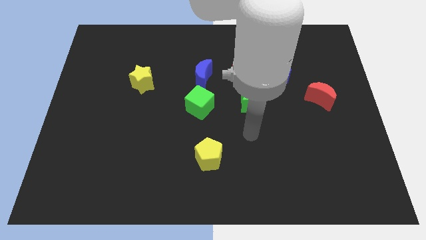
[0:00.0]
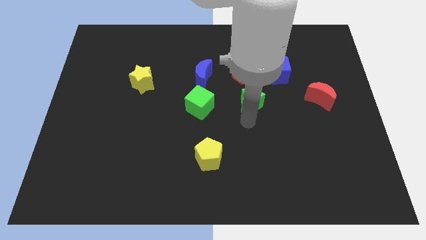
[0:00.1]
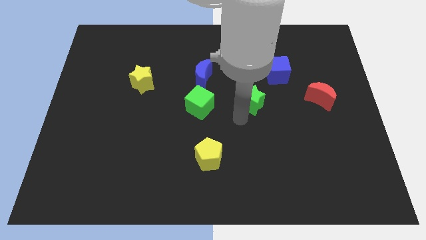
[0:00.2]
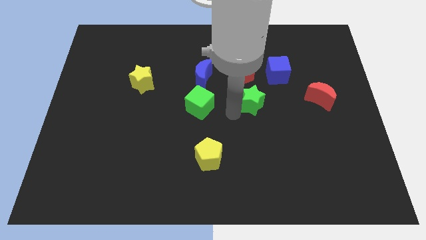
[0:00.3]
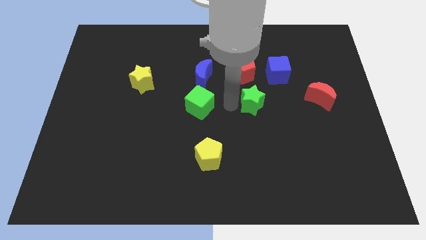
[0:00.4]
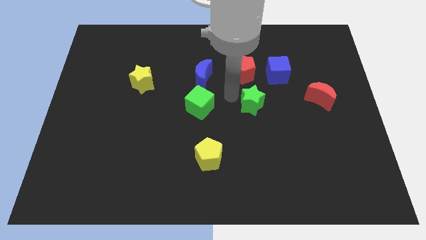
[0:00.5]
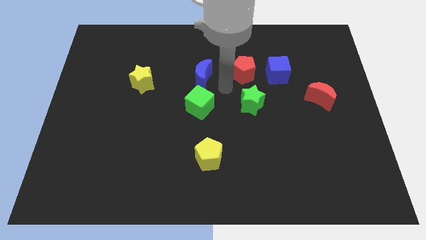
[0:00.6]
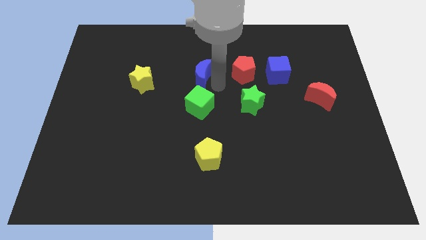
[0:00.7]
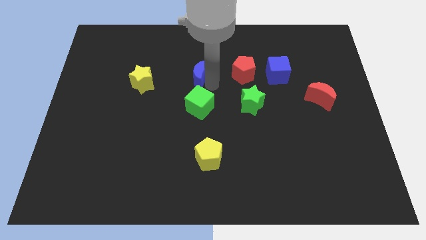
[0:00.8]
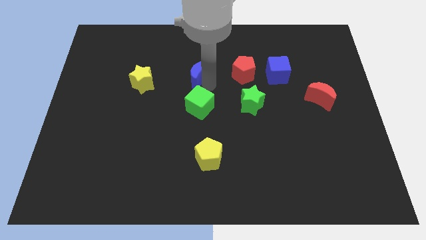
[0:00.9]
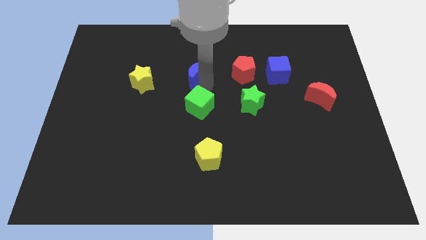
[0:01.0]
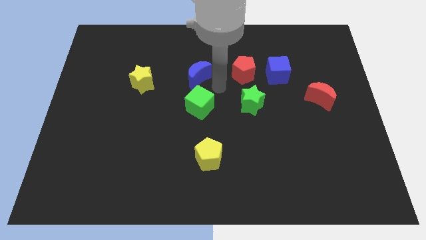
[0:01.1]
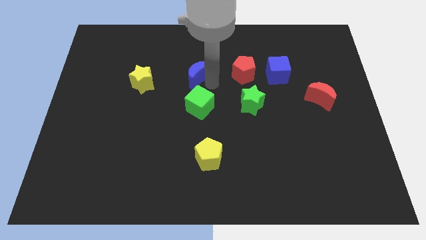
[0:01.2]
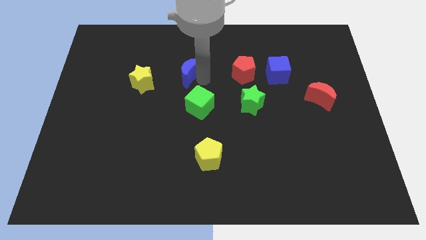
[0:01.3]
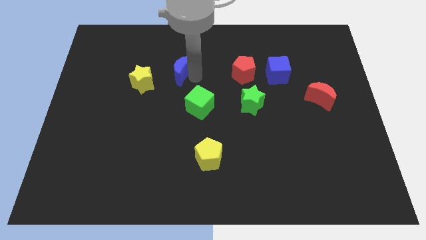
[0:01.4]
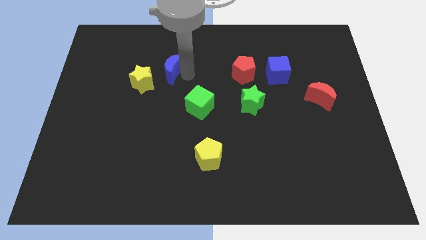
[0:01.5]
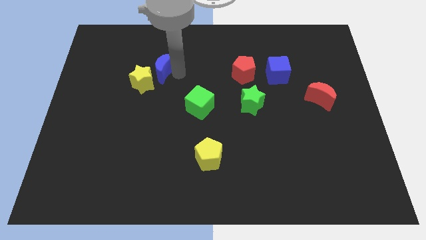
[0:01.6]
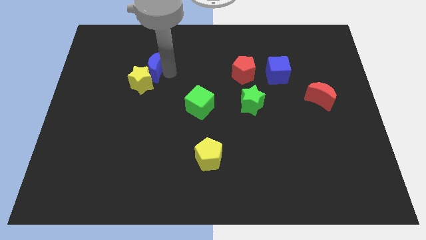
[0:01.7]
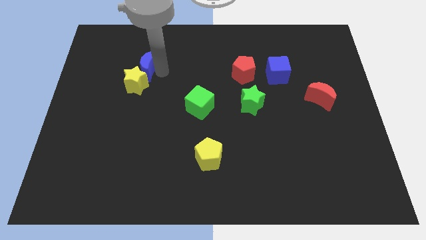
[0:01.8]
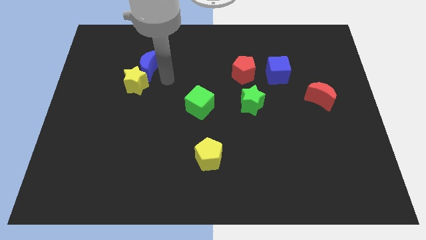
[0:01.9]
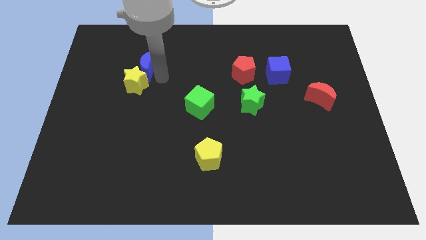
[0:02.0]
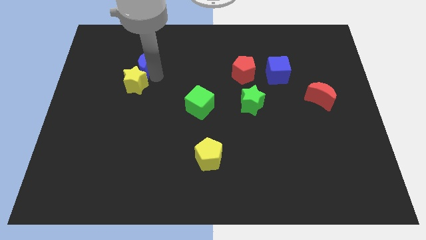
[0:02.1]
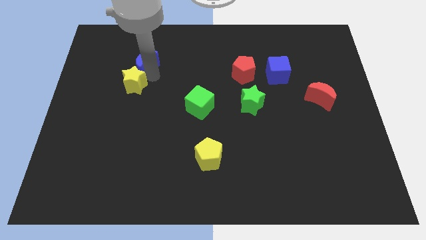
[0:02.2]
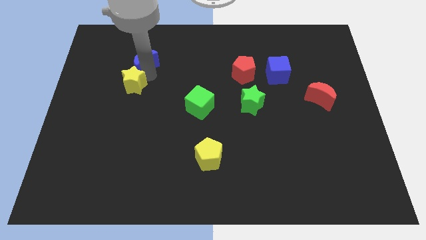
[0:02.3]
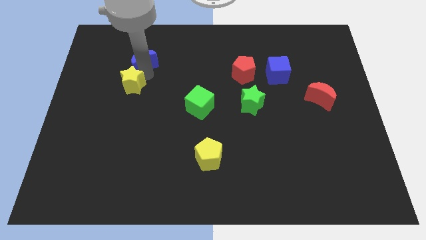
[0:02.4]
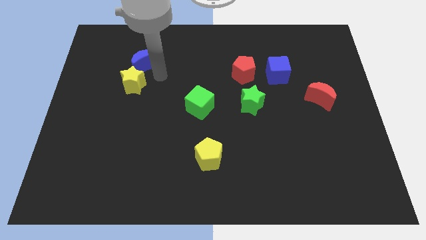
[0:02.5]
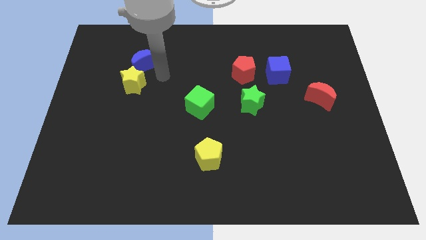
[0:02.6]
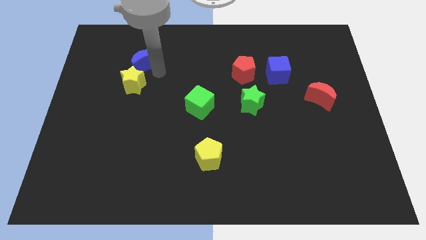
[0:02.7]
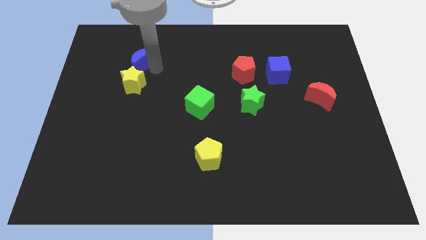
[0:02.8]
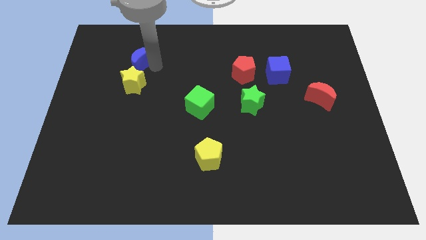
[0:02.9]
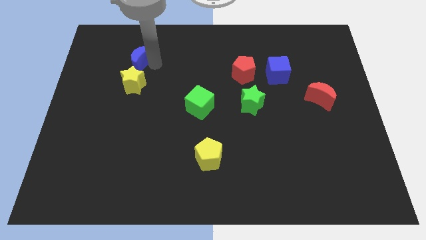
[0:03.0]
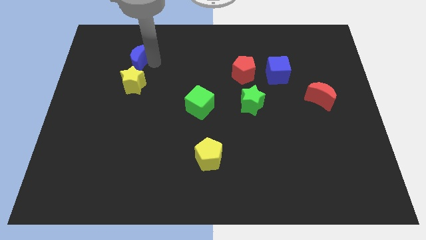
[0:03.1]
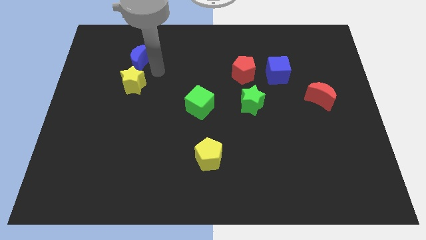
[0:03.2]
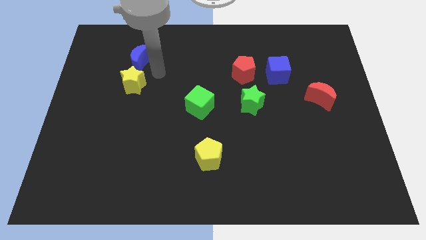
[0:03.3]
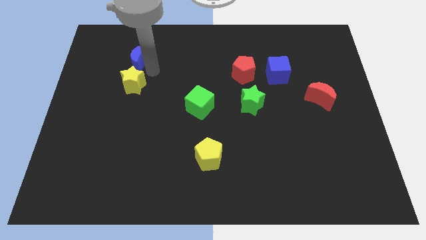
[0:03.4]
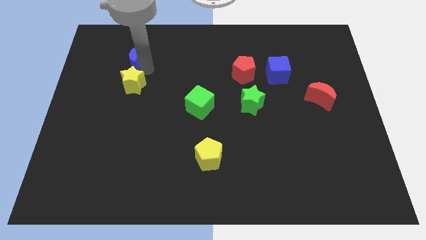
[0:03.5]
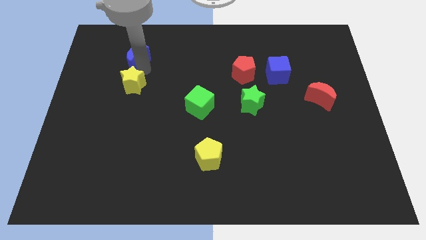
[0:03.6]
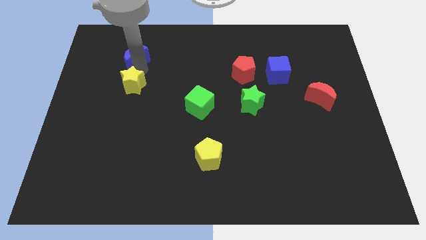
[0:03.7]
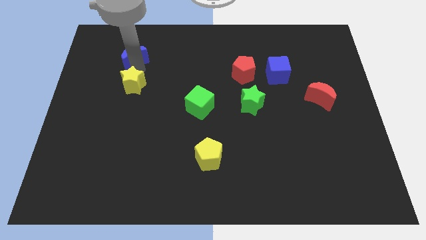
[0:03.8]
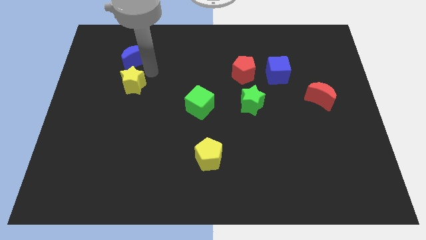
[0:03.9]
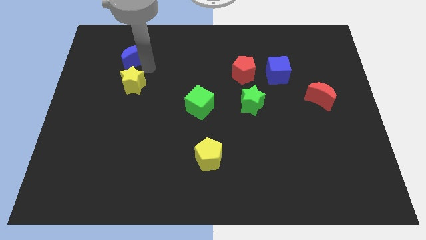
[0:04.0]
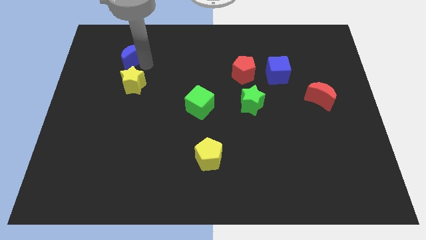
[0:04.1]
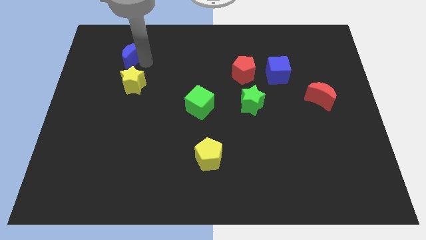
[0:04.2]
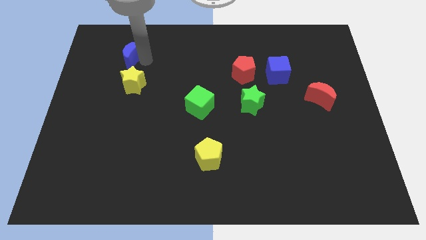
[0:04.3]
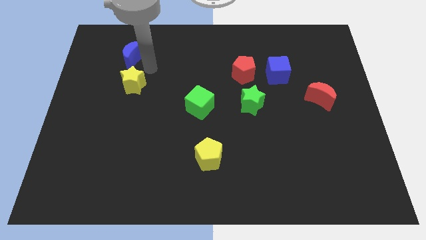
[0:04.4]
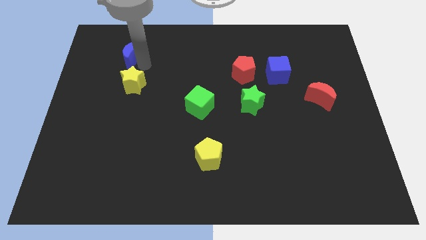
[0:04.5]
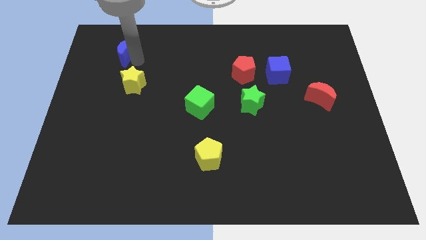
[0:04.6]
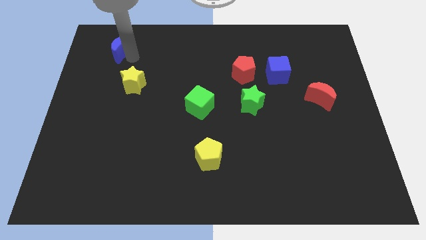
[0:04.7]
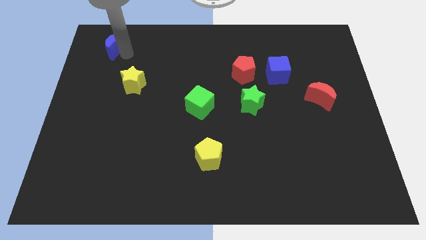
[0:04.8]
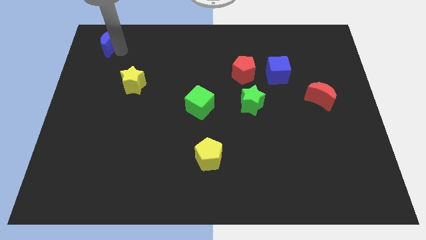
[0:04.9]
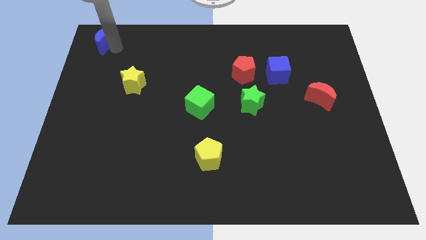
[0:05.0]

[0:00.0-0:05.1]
push the blue moon to the top left of the board

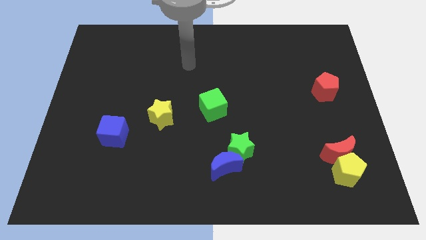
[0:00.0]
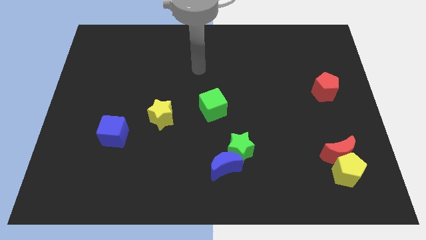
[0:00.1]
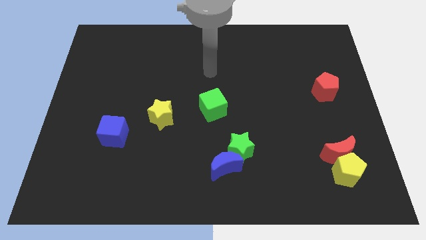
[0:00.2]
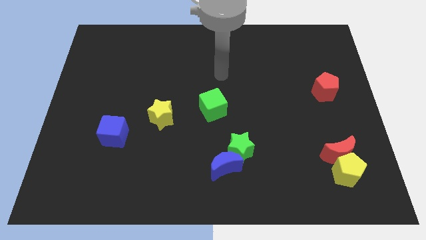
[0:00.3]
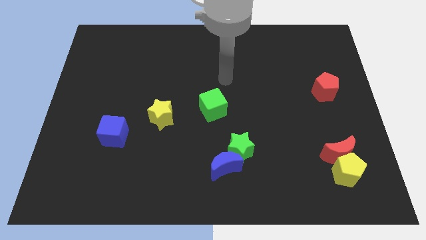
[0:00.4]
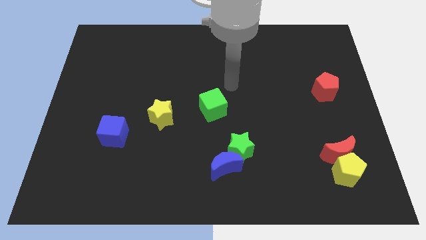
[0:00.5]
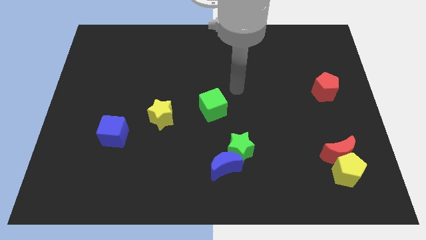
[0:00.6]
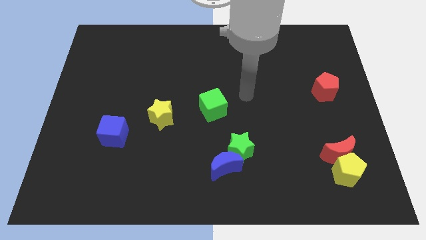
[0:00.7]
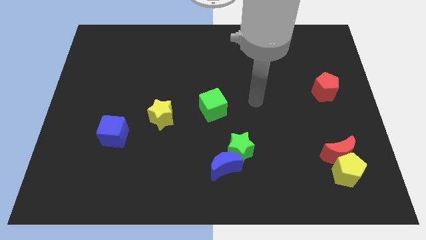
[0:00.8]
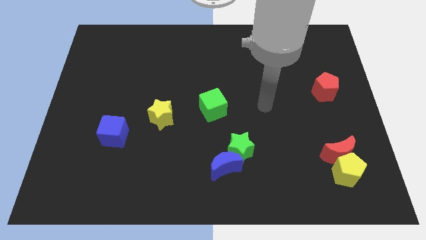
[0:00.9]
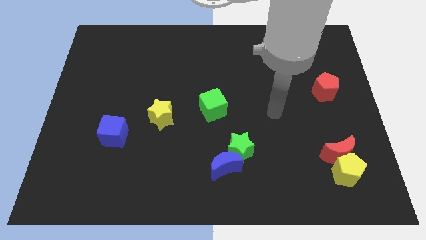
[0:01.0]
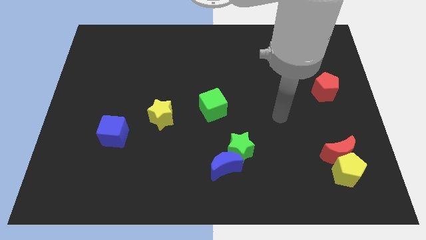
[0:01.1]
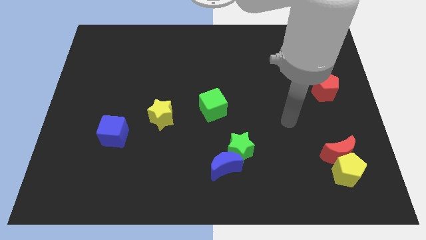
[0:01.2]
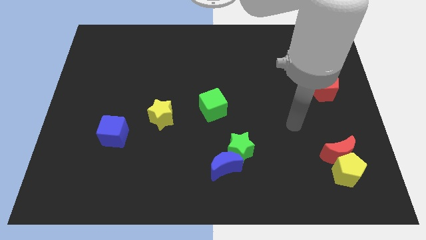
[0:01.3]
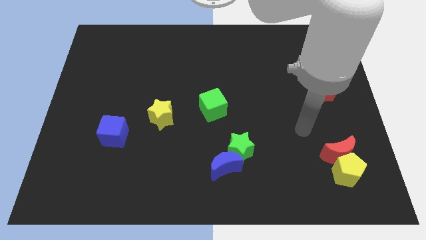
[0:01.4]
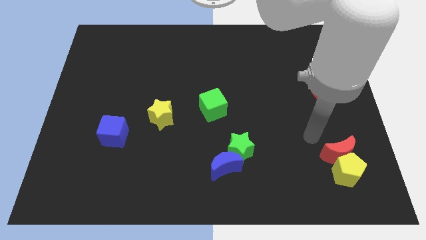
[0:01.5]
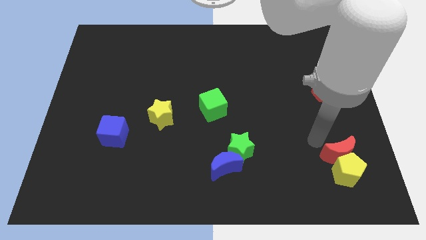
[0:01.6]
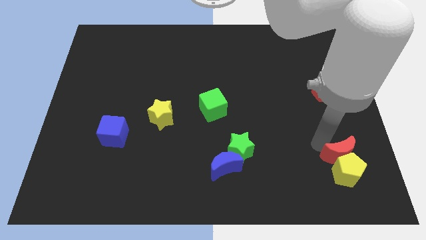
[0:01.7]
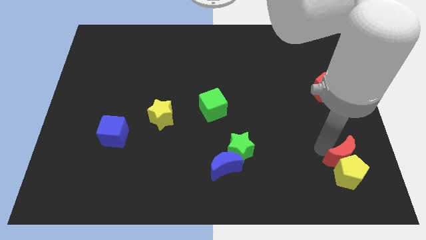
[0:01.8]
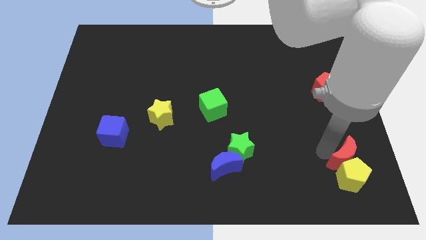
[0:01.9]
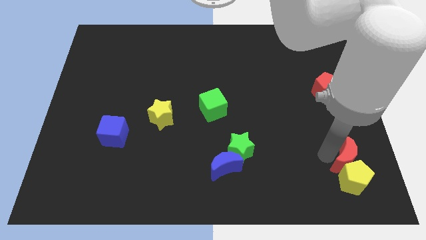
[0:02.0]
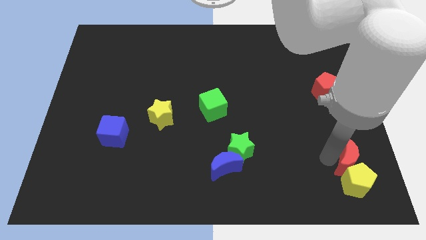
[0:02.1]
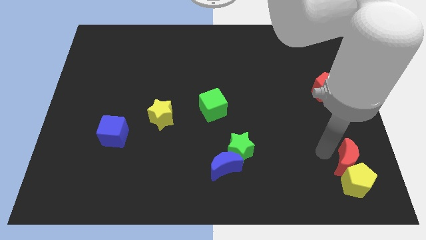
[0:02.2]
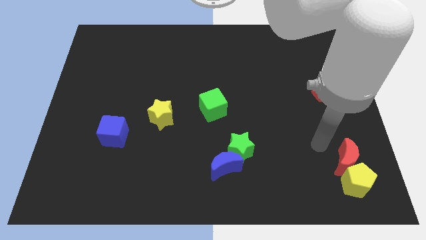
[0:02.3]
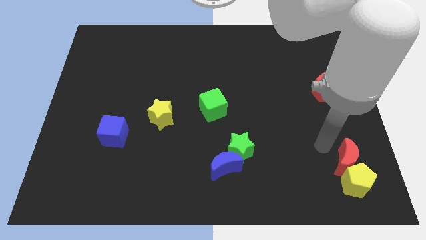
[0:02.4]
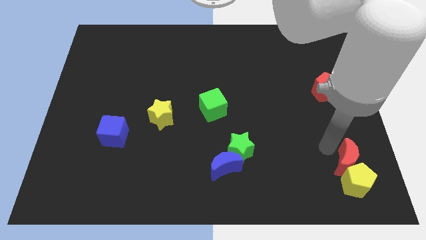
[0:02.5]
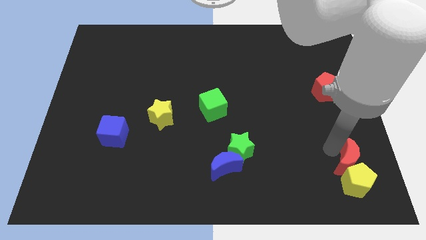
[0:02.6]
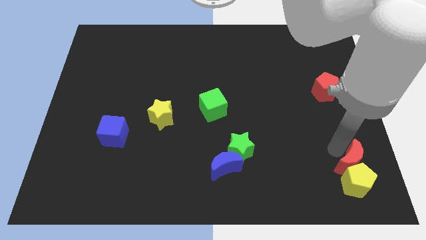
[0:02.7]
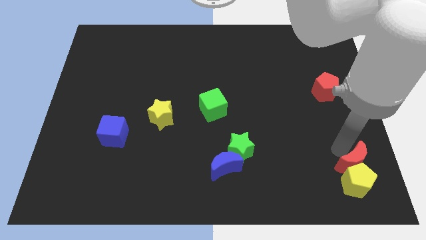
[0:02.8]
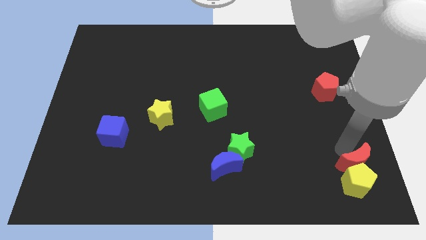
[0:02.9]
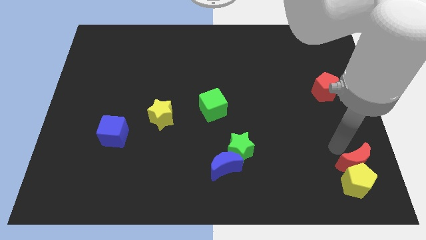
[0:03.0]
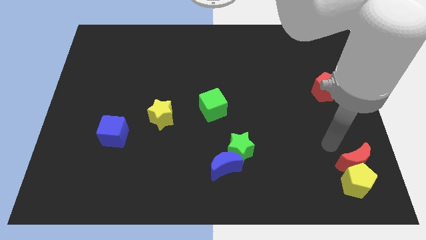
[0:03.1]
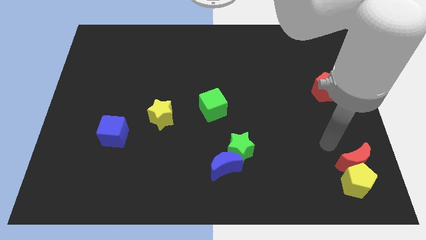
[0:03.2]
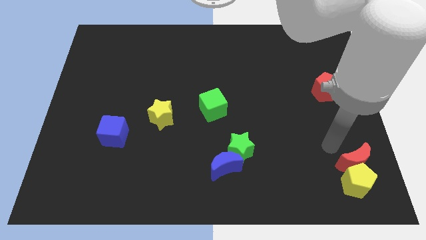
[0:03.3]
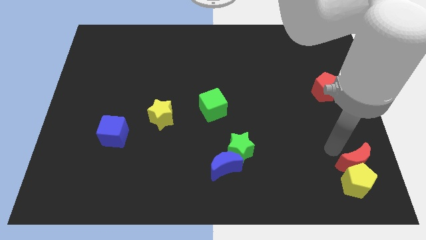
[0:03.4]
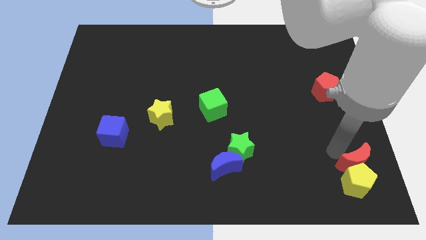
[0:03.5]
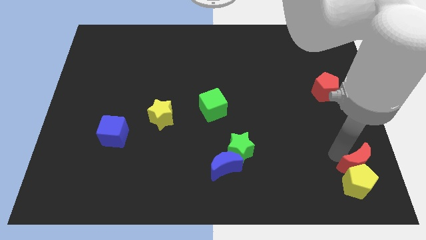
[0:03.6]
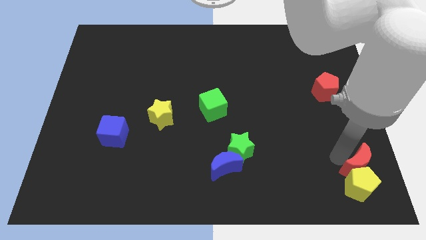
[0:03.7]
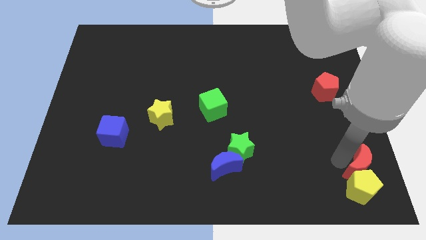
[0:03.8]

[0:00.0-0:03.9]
push the red moon to the lower right corner
